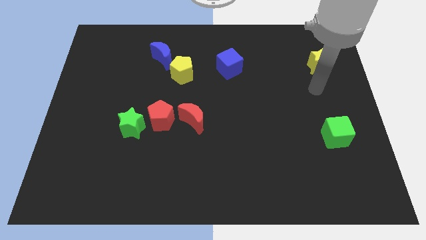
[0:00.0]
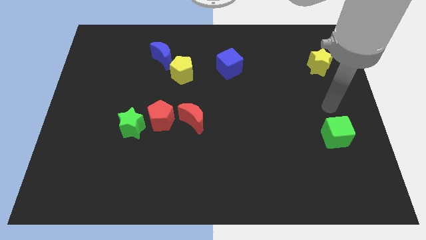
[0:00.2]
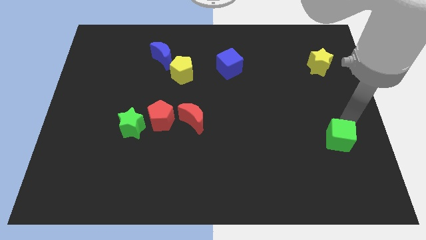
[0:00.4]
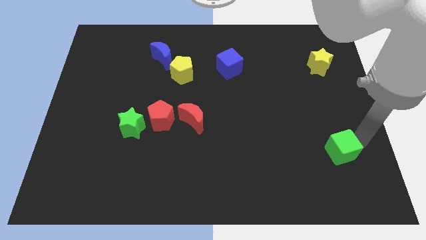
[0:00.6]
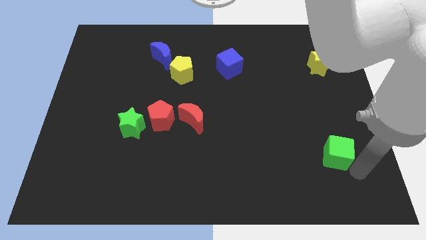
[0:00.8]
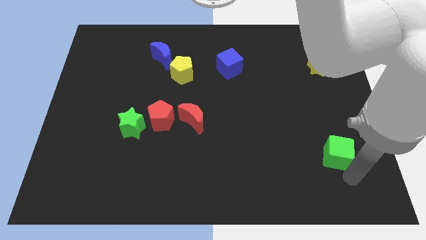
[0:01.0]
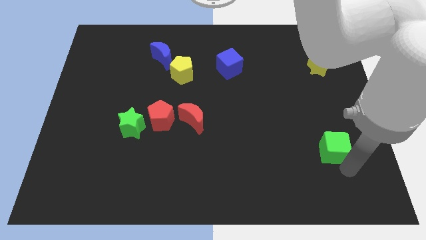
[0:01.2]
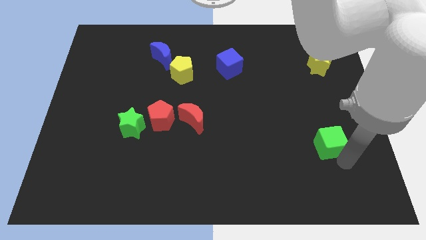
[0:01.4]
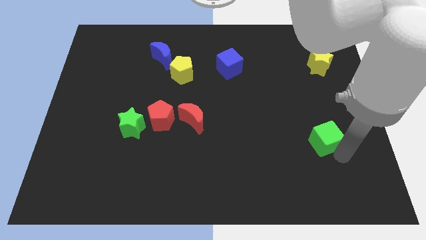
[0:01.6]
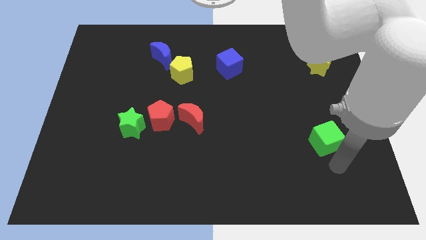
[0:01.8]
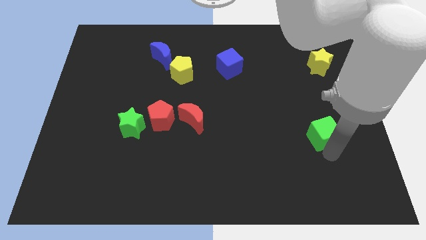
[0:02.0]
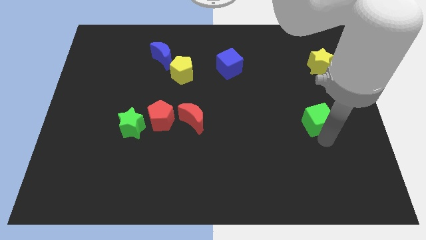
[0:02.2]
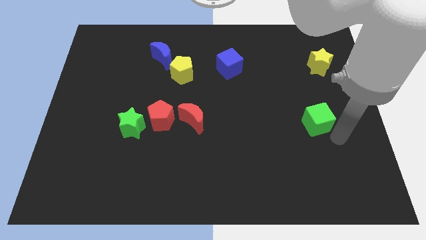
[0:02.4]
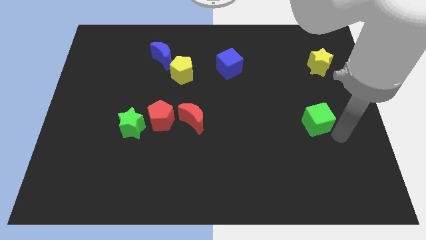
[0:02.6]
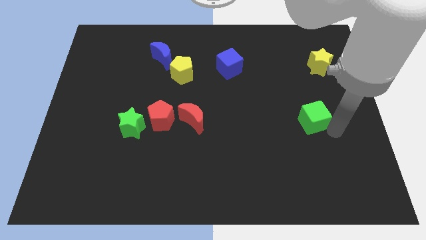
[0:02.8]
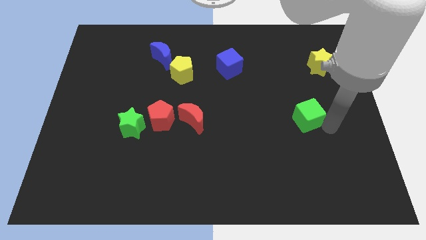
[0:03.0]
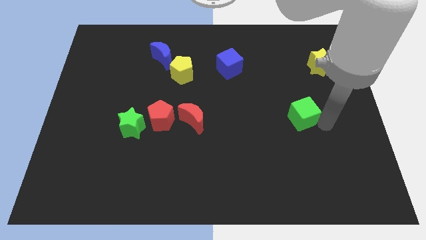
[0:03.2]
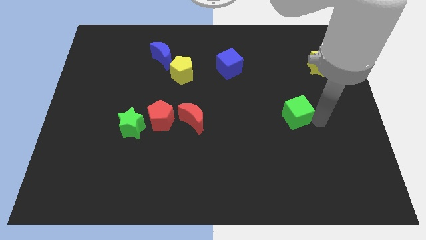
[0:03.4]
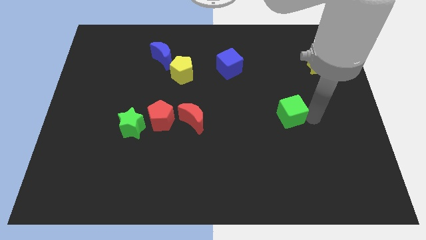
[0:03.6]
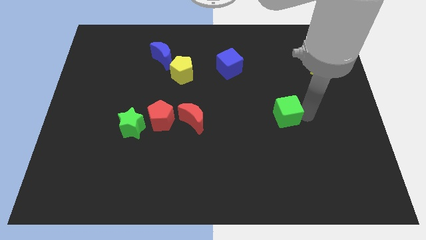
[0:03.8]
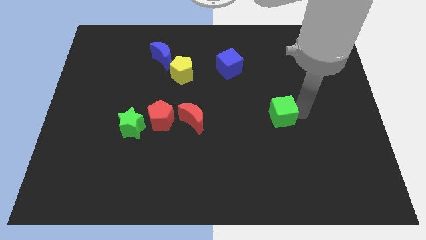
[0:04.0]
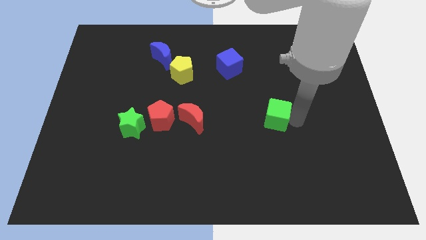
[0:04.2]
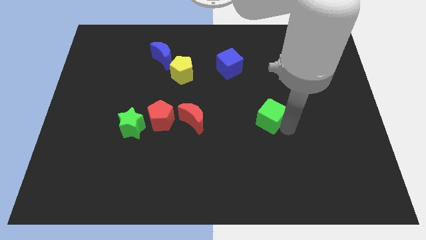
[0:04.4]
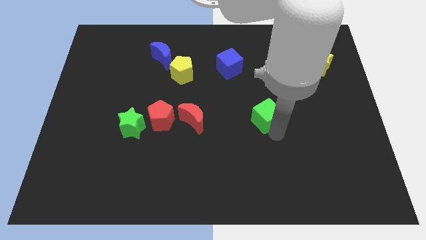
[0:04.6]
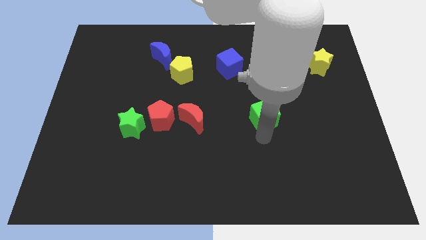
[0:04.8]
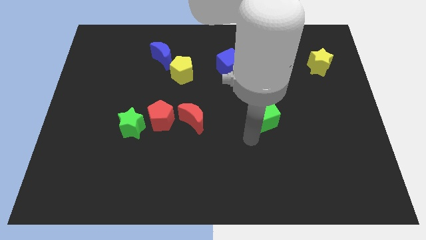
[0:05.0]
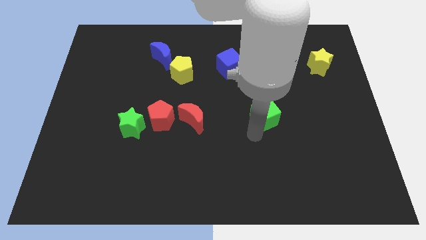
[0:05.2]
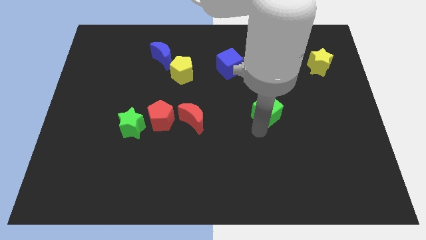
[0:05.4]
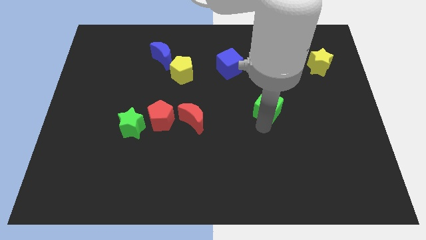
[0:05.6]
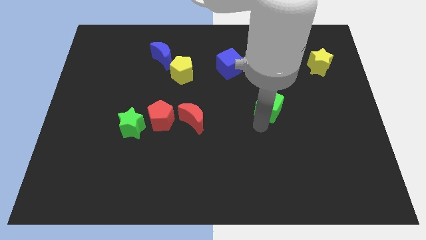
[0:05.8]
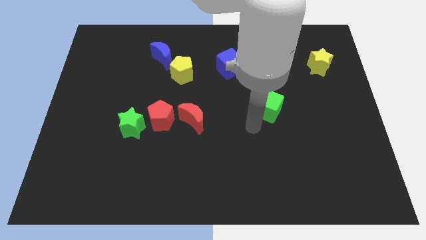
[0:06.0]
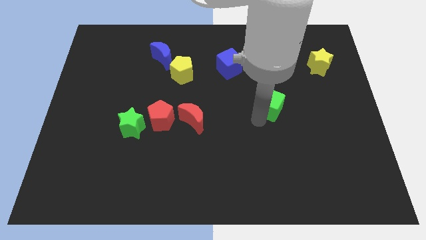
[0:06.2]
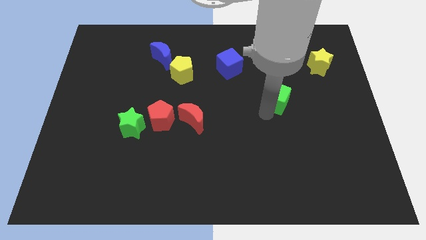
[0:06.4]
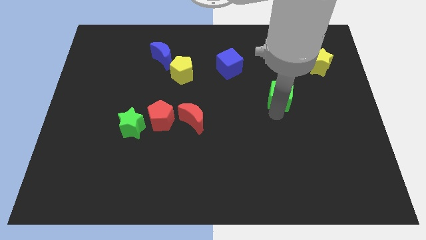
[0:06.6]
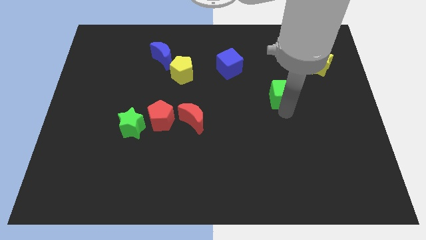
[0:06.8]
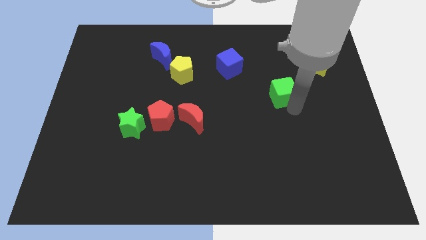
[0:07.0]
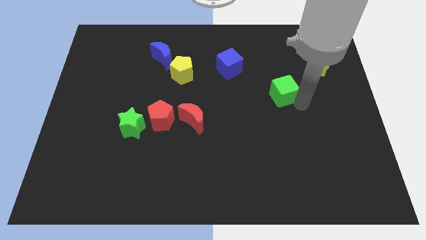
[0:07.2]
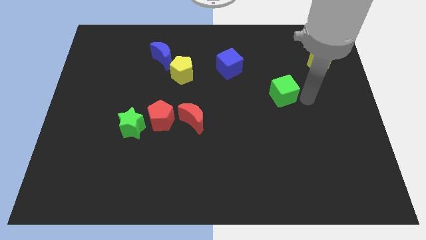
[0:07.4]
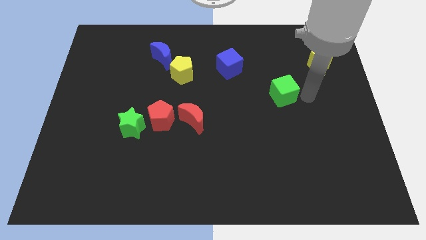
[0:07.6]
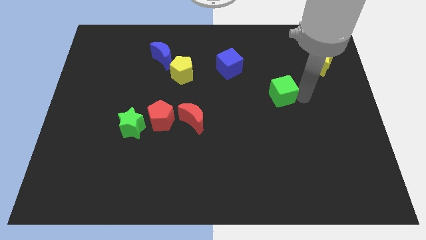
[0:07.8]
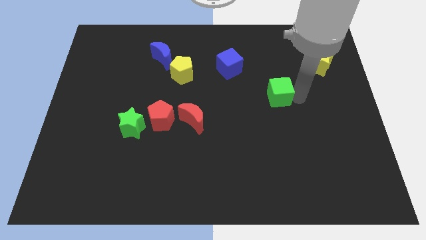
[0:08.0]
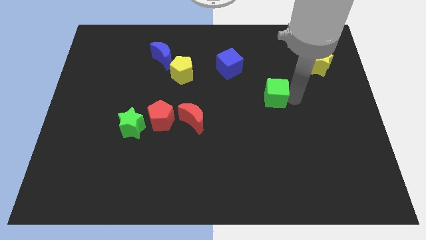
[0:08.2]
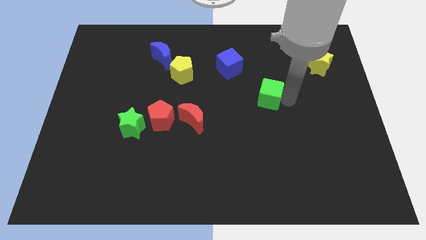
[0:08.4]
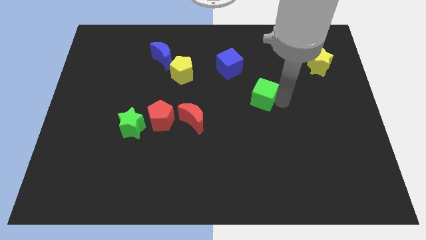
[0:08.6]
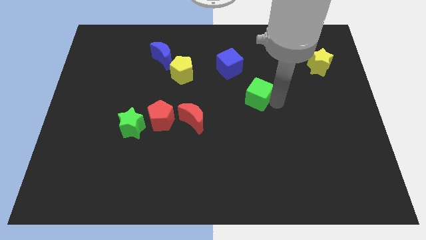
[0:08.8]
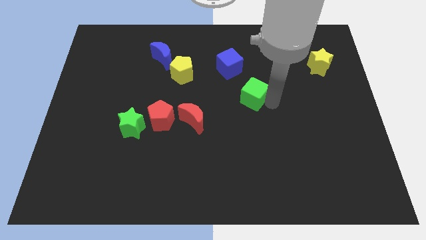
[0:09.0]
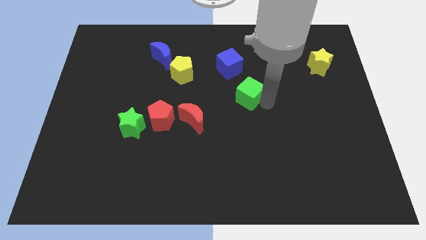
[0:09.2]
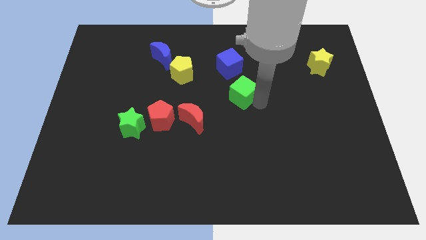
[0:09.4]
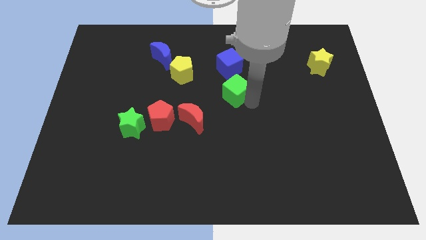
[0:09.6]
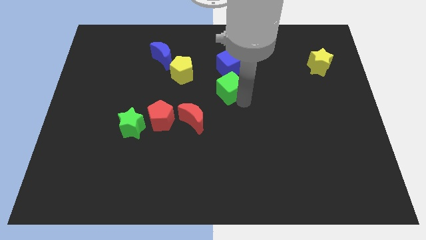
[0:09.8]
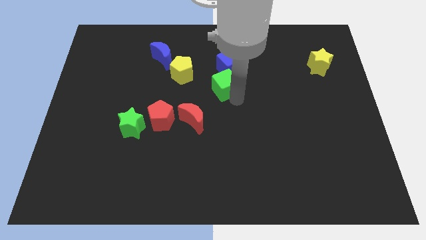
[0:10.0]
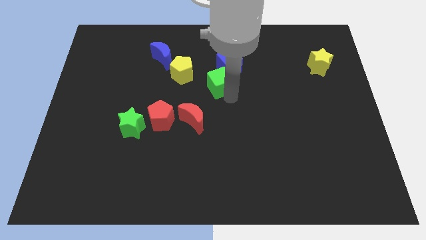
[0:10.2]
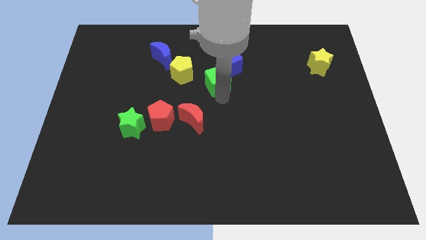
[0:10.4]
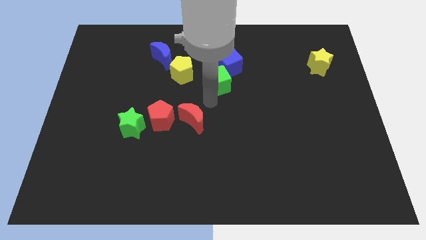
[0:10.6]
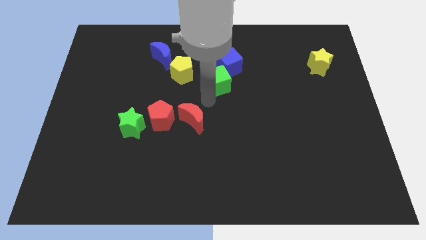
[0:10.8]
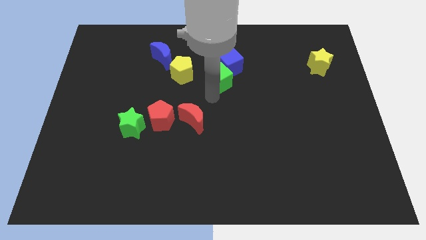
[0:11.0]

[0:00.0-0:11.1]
push the green cube next to the blue cube

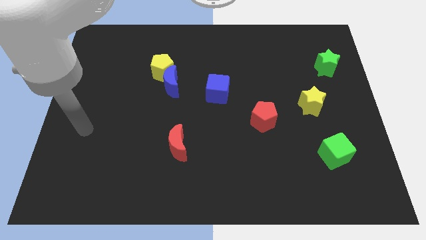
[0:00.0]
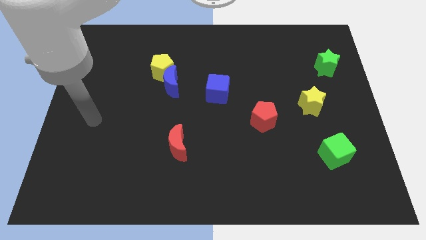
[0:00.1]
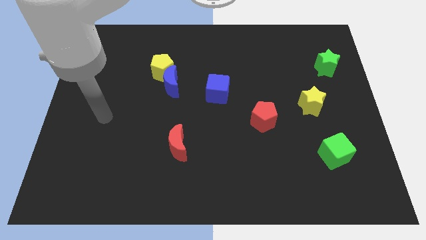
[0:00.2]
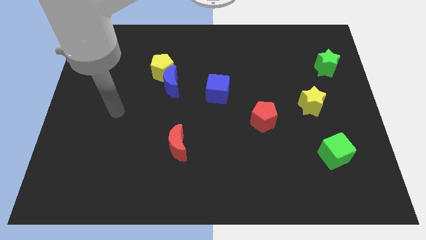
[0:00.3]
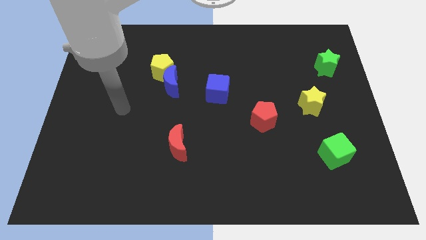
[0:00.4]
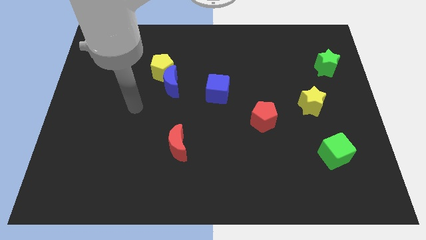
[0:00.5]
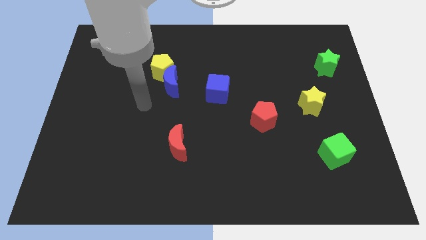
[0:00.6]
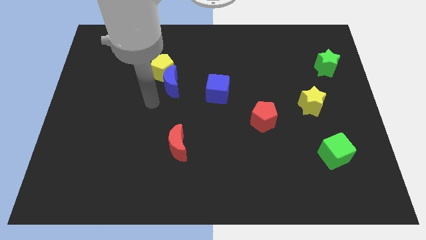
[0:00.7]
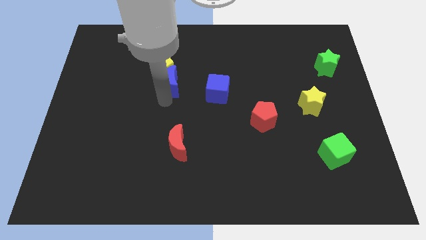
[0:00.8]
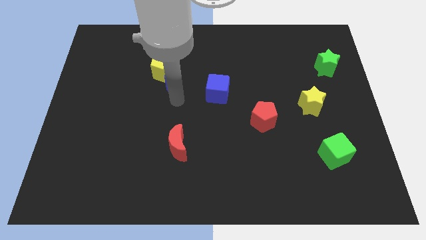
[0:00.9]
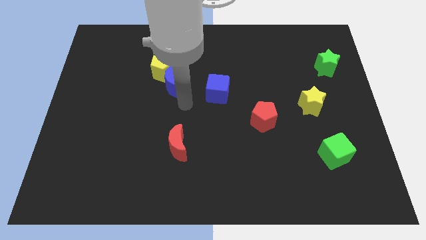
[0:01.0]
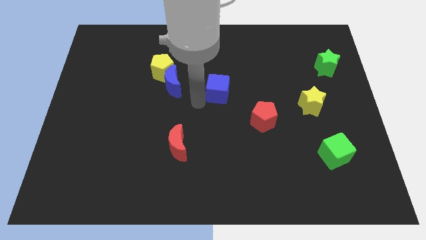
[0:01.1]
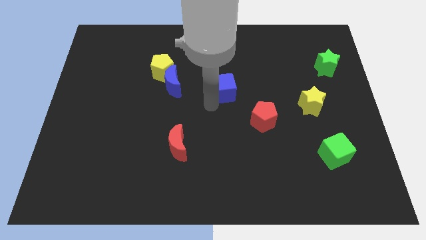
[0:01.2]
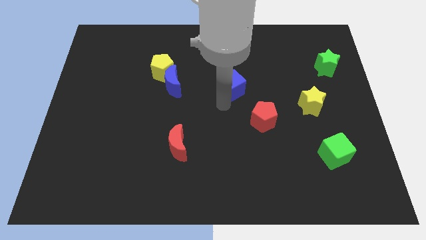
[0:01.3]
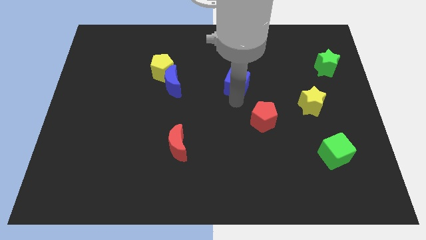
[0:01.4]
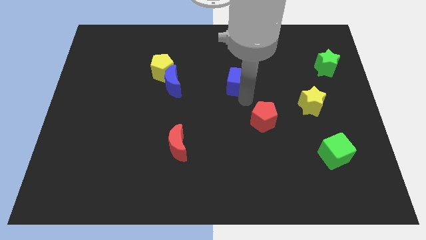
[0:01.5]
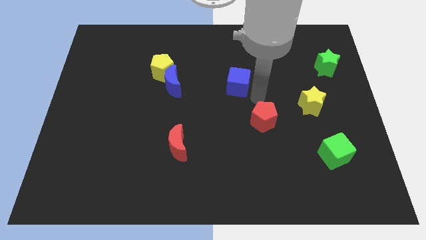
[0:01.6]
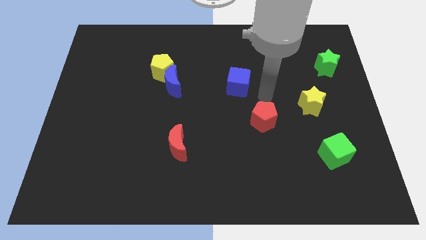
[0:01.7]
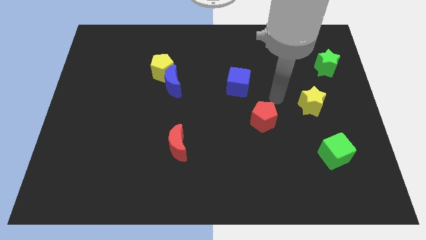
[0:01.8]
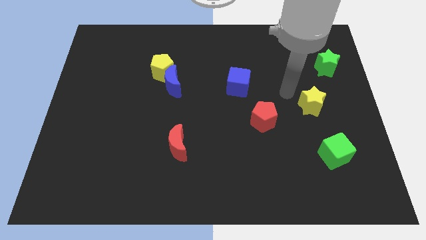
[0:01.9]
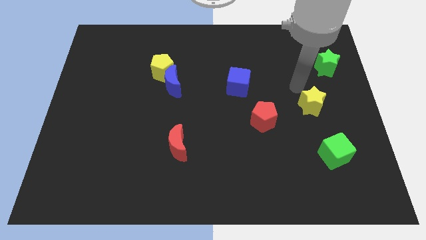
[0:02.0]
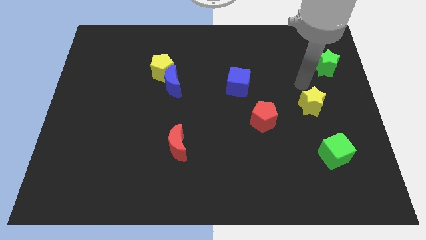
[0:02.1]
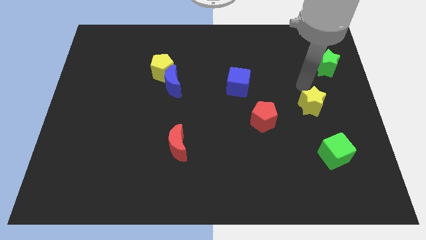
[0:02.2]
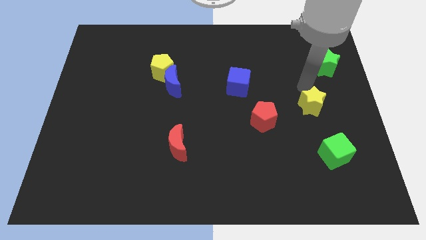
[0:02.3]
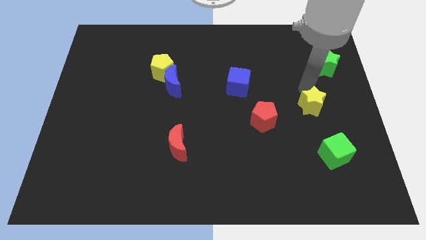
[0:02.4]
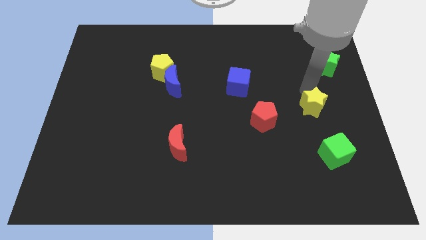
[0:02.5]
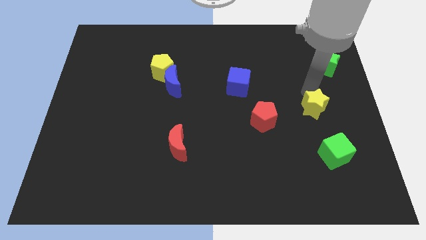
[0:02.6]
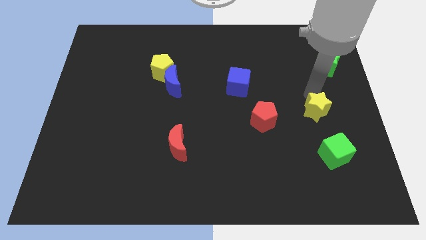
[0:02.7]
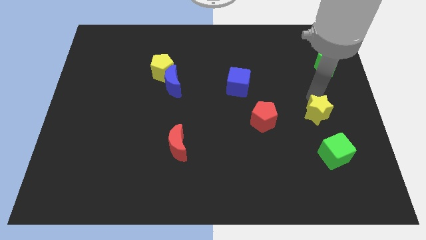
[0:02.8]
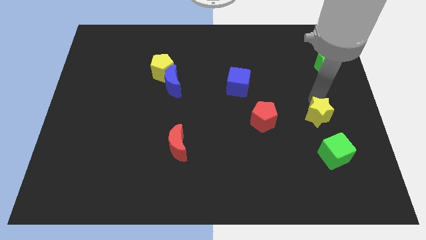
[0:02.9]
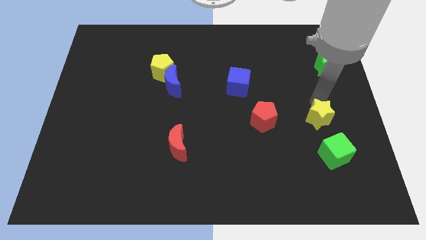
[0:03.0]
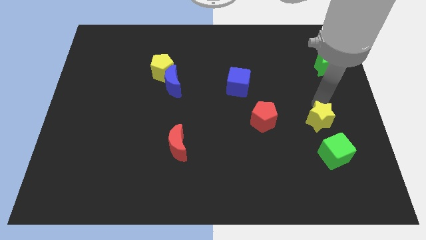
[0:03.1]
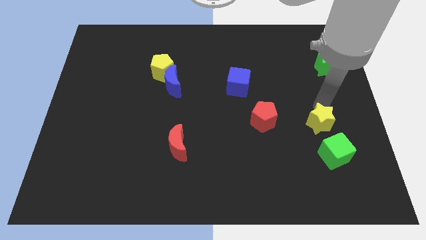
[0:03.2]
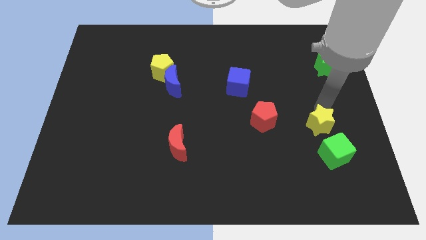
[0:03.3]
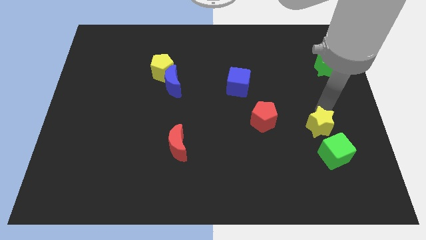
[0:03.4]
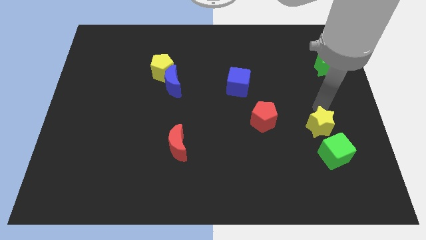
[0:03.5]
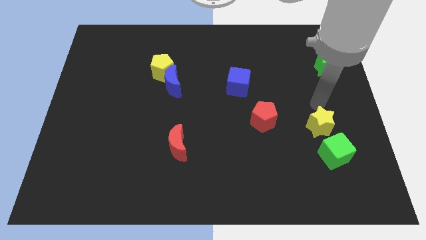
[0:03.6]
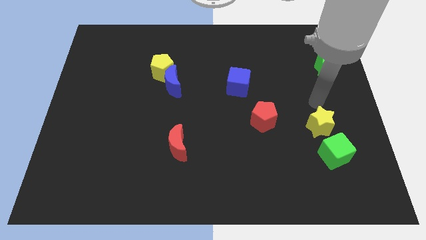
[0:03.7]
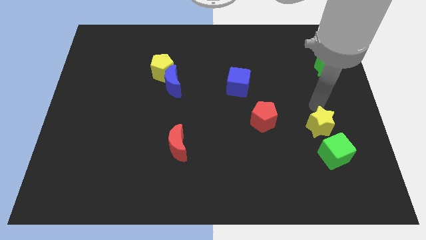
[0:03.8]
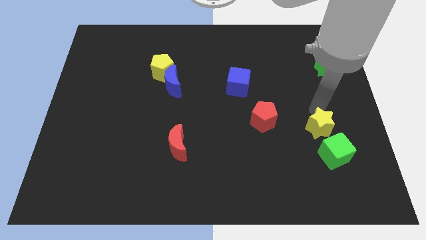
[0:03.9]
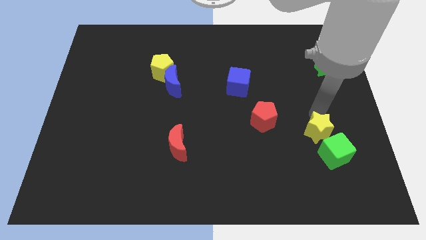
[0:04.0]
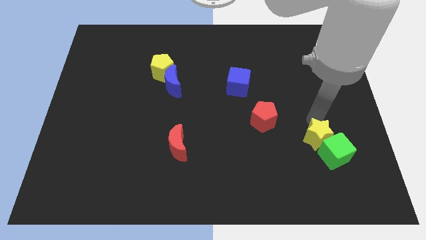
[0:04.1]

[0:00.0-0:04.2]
slide the yellow star next to the green cube
